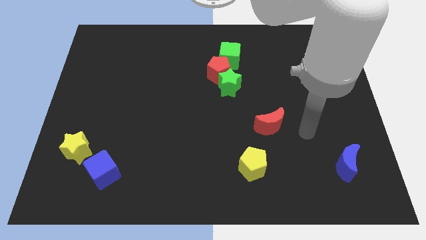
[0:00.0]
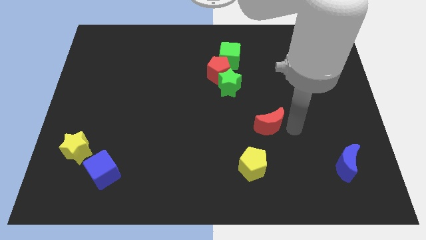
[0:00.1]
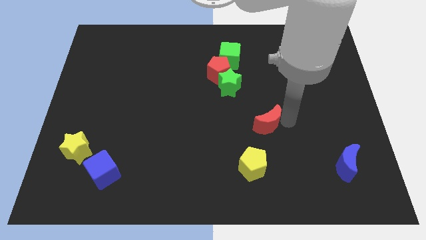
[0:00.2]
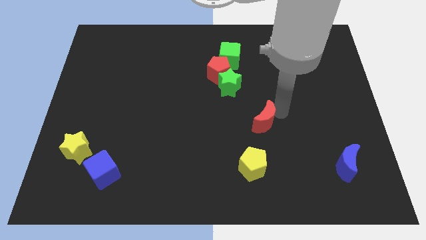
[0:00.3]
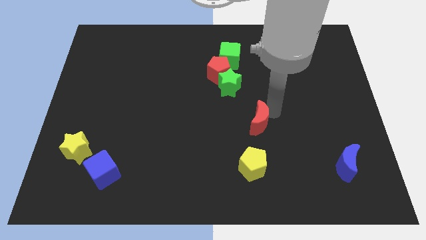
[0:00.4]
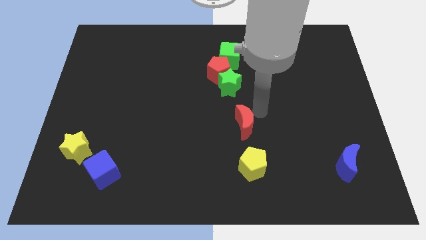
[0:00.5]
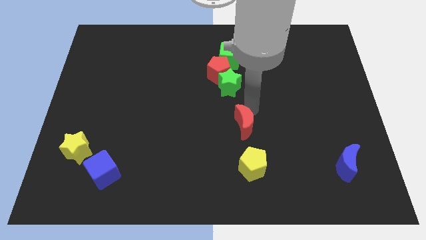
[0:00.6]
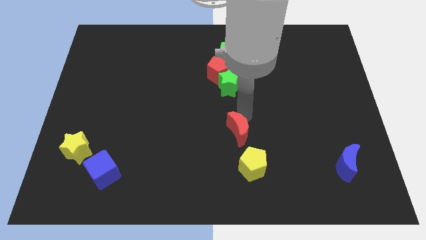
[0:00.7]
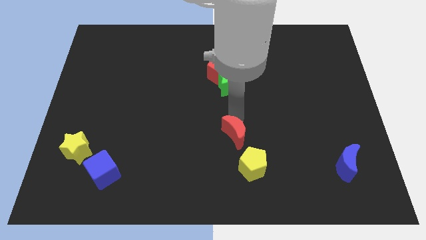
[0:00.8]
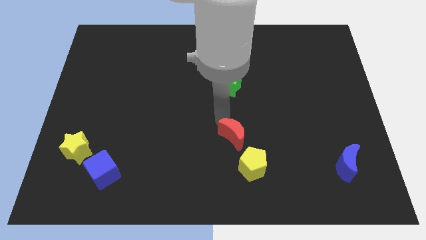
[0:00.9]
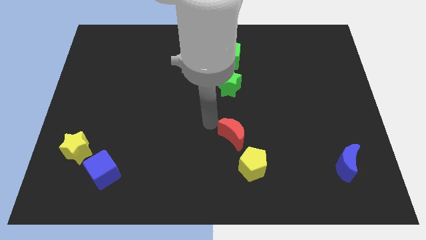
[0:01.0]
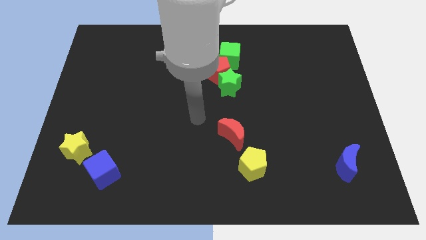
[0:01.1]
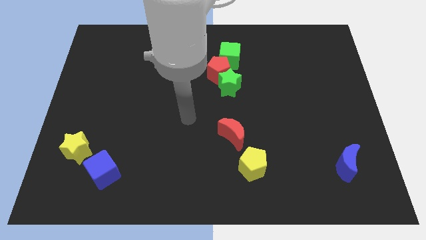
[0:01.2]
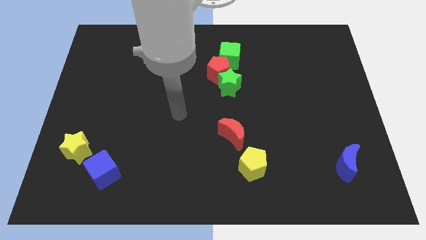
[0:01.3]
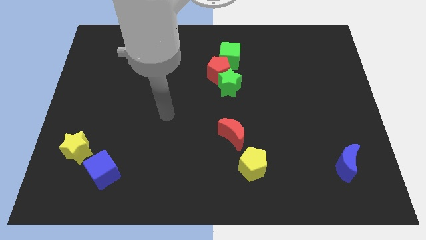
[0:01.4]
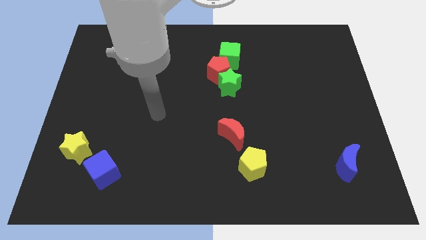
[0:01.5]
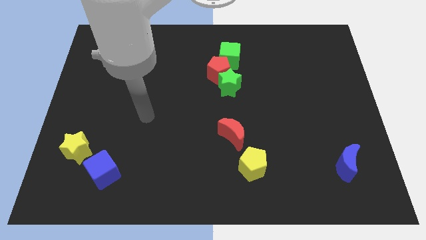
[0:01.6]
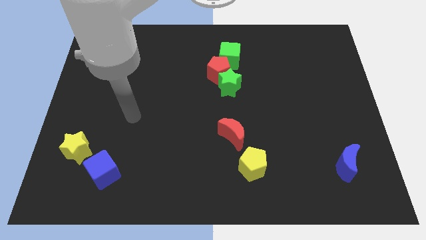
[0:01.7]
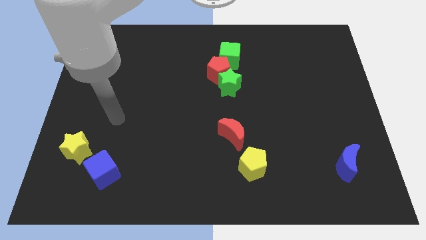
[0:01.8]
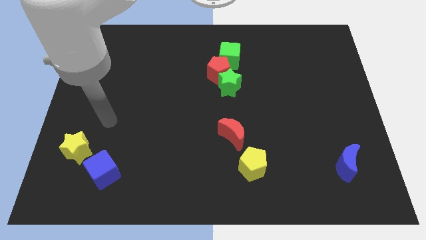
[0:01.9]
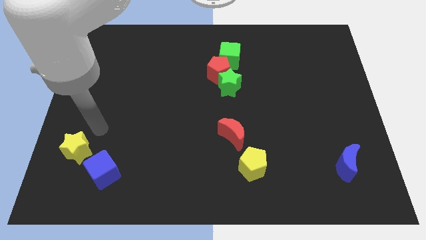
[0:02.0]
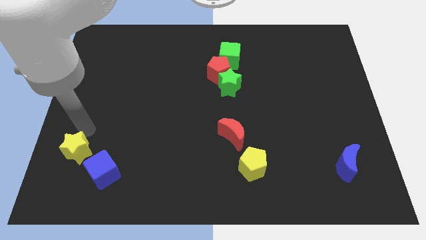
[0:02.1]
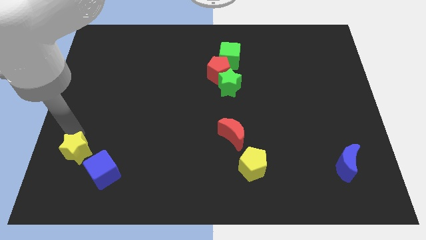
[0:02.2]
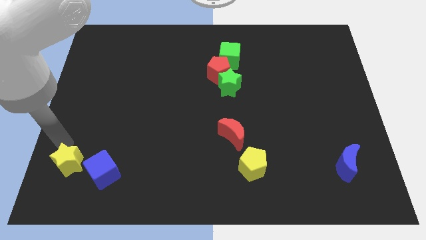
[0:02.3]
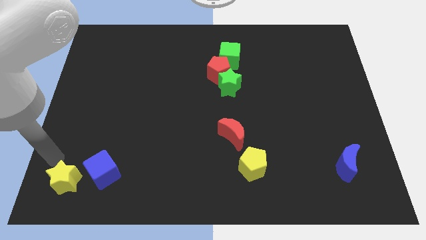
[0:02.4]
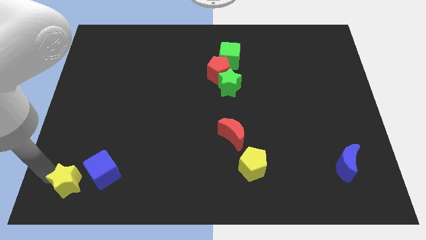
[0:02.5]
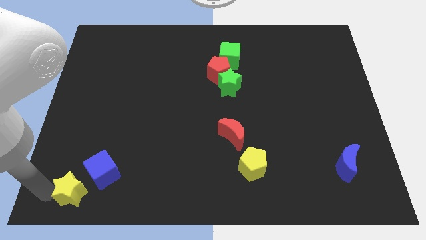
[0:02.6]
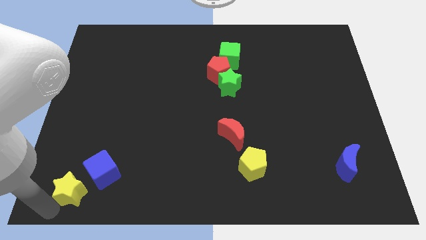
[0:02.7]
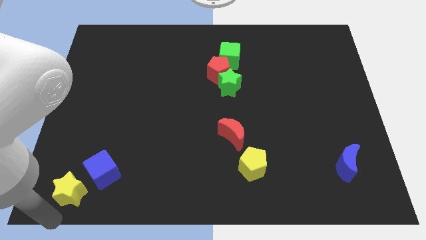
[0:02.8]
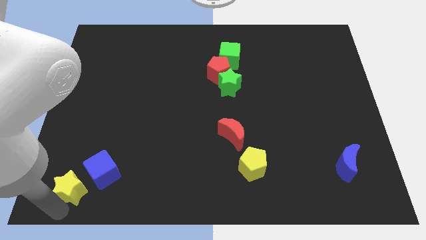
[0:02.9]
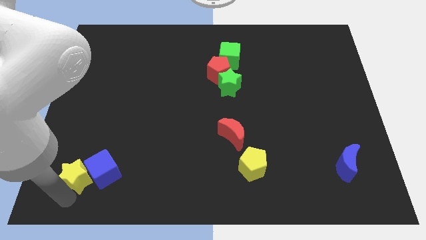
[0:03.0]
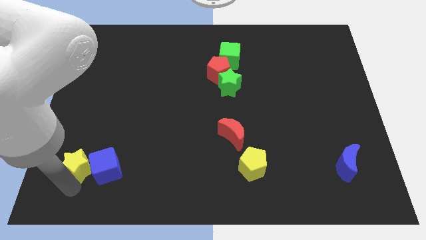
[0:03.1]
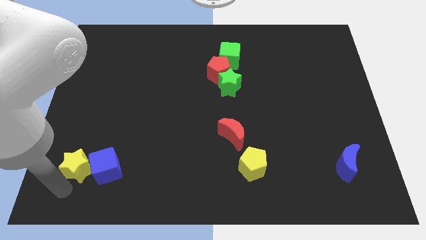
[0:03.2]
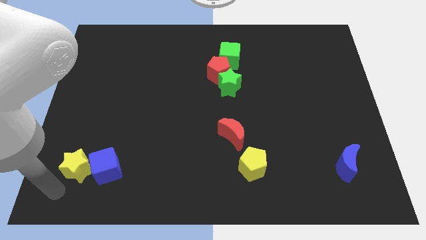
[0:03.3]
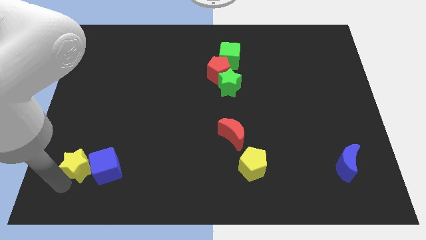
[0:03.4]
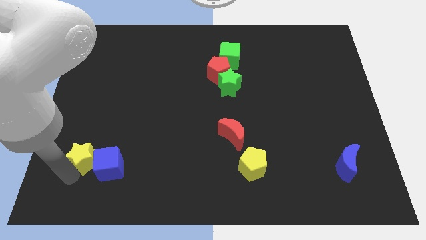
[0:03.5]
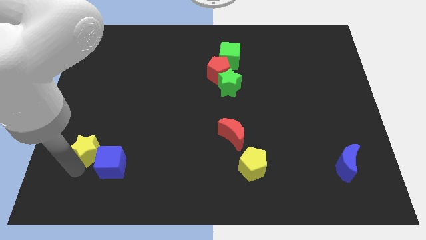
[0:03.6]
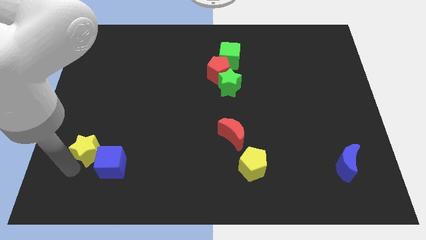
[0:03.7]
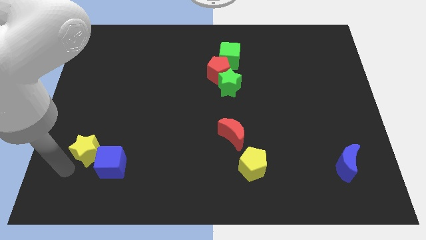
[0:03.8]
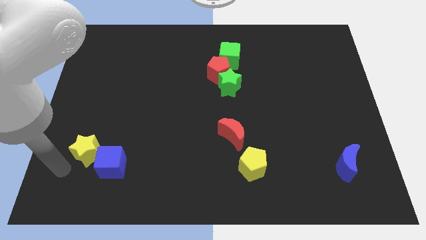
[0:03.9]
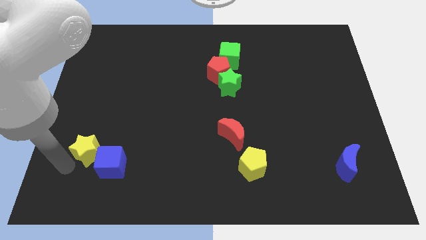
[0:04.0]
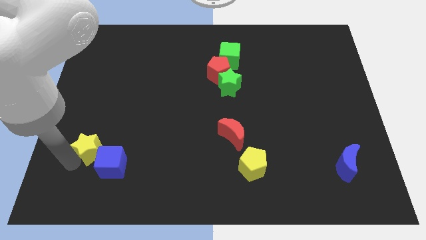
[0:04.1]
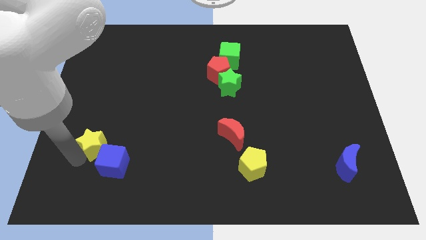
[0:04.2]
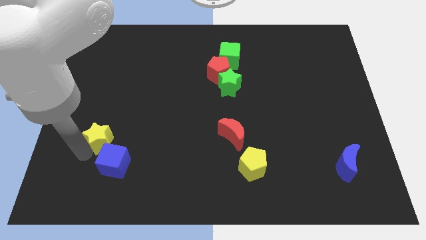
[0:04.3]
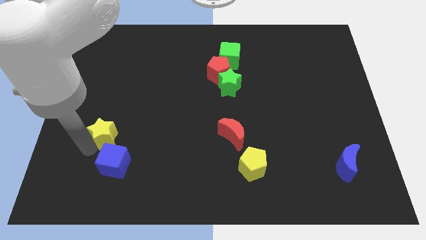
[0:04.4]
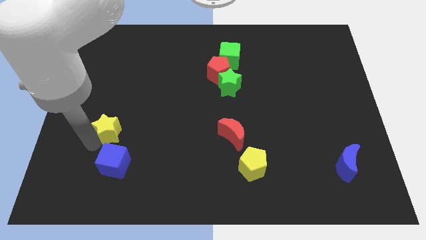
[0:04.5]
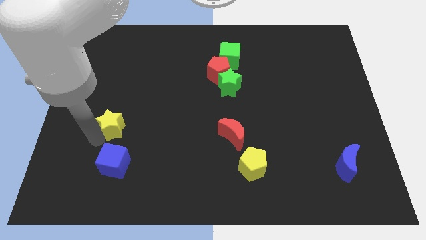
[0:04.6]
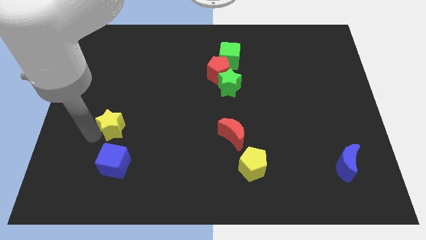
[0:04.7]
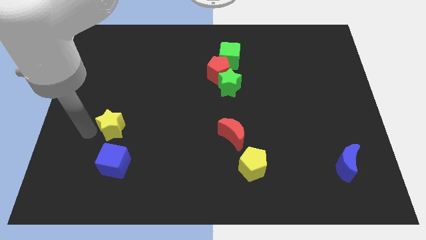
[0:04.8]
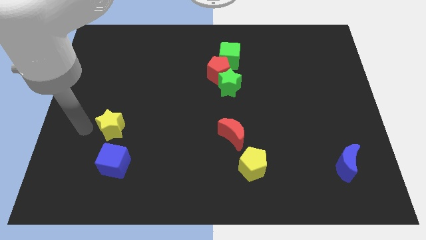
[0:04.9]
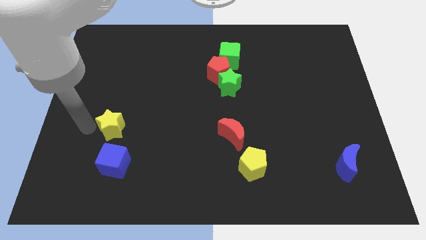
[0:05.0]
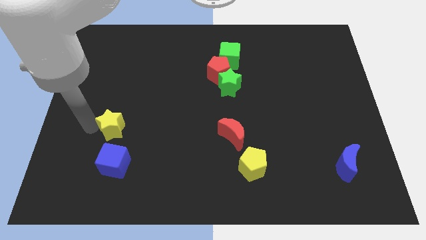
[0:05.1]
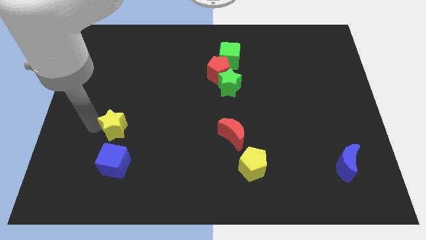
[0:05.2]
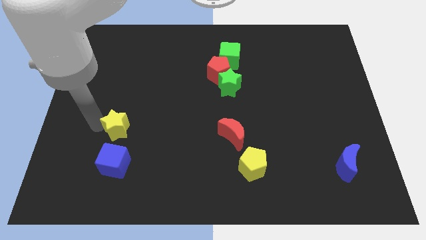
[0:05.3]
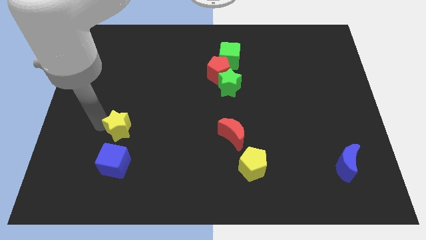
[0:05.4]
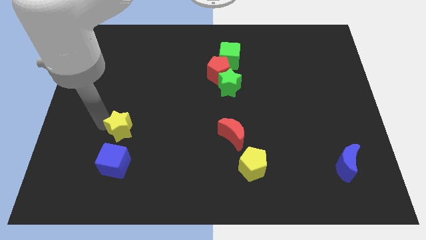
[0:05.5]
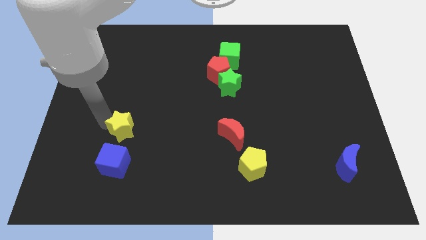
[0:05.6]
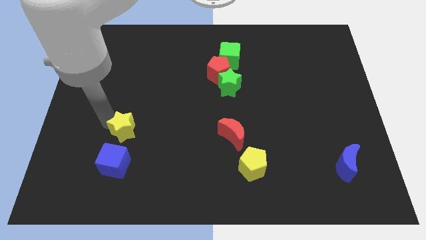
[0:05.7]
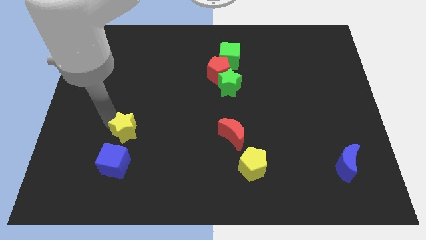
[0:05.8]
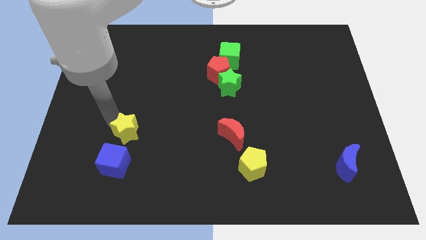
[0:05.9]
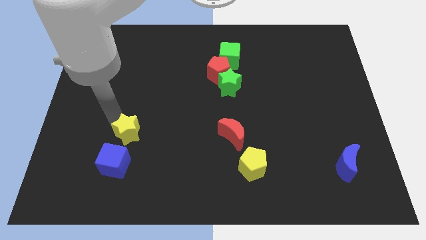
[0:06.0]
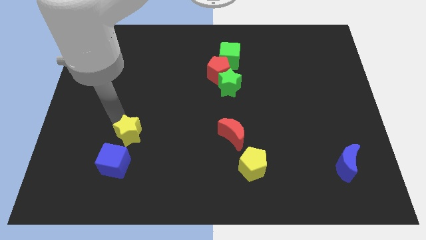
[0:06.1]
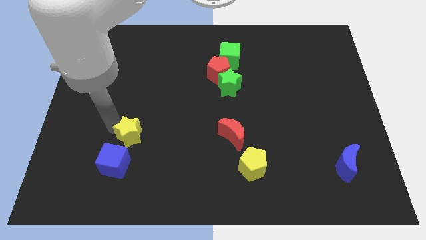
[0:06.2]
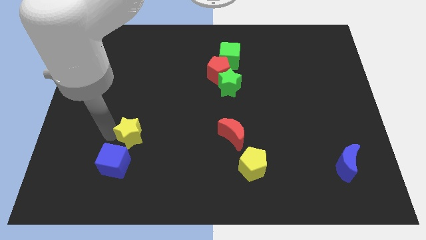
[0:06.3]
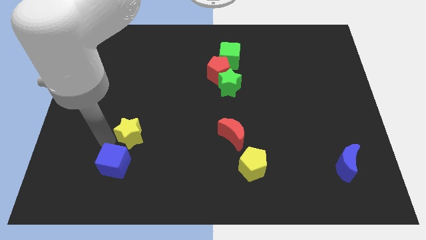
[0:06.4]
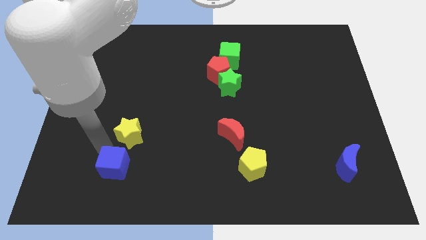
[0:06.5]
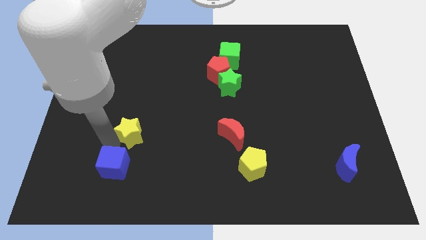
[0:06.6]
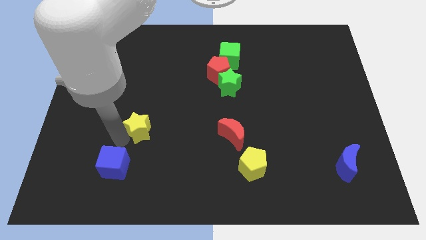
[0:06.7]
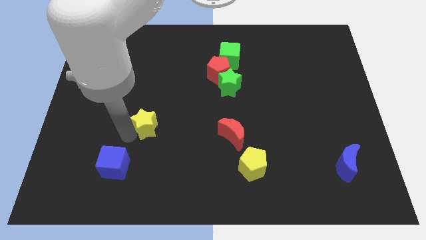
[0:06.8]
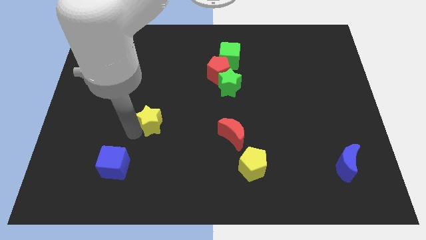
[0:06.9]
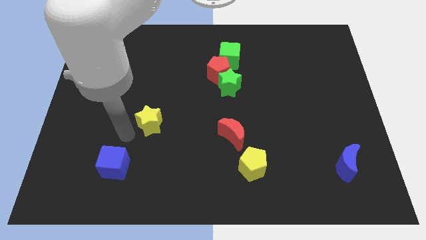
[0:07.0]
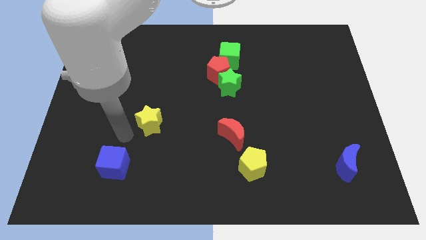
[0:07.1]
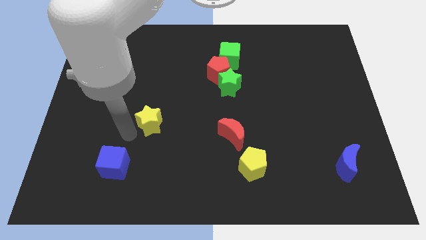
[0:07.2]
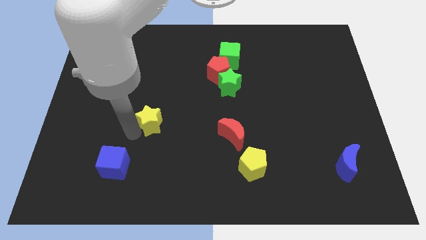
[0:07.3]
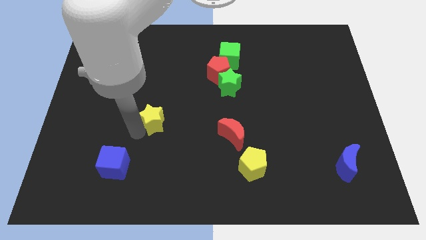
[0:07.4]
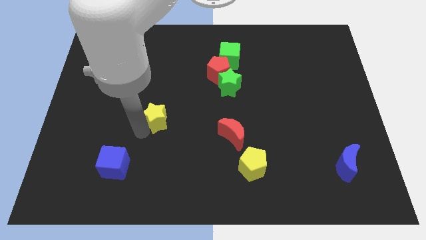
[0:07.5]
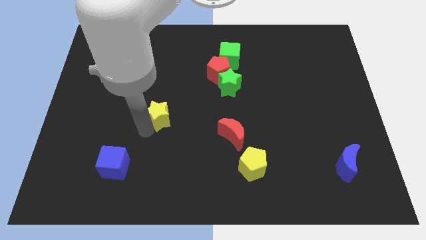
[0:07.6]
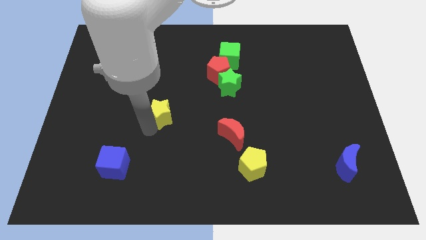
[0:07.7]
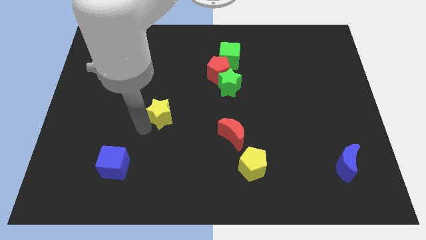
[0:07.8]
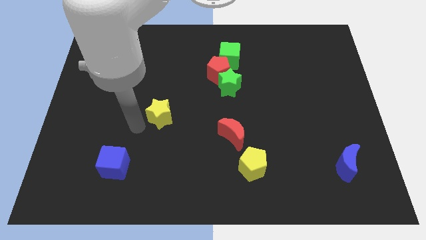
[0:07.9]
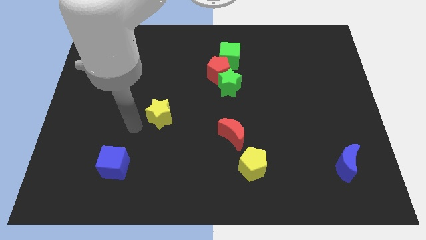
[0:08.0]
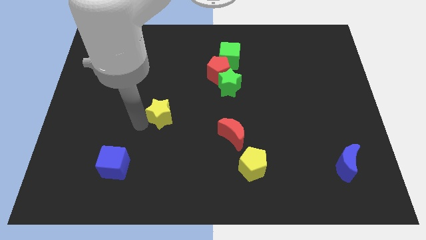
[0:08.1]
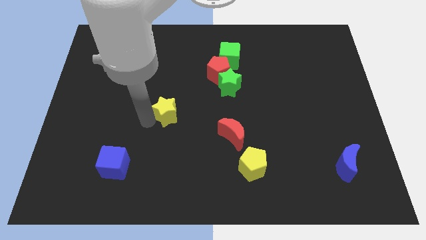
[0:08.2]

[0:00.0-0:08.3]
slide the yellow star to the center of the board
